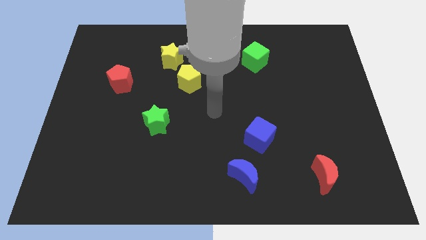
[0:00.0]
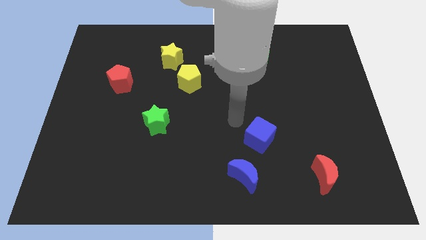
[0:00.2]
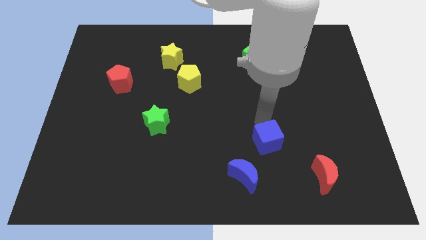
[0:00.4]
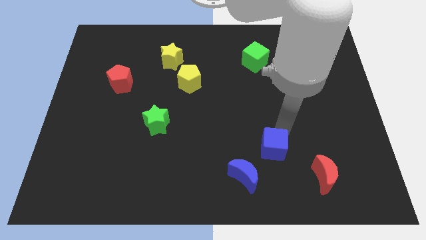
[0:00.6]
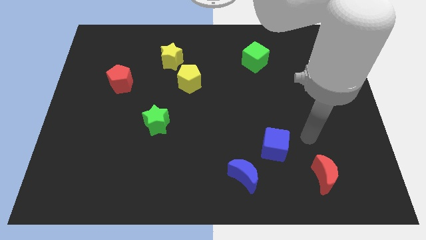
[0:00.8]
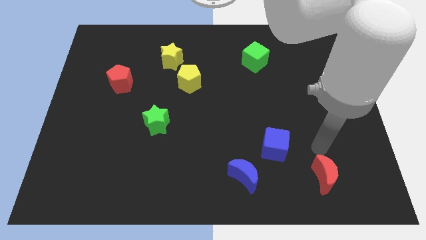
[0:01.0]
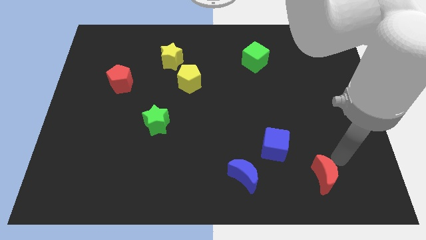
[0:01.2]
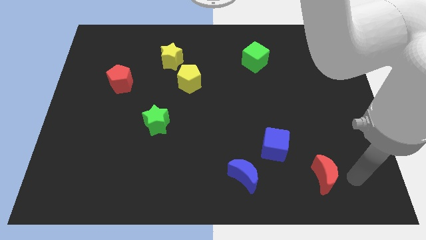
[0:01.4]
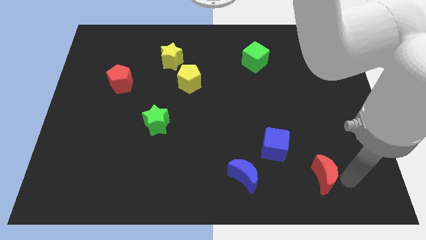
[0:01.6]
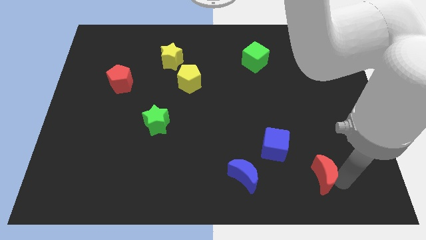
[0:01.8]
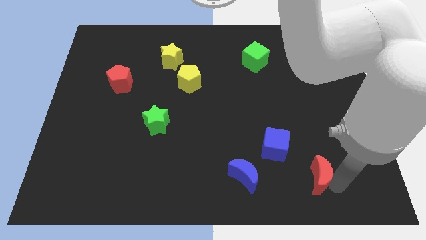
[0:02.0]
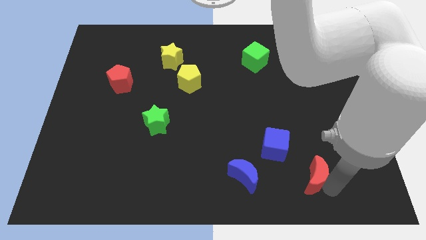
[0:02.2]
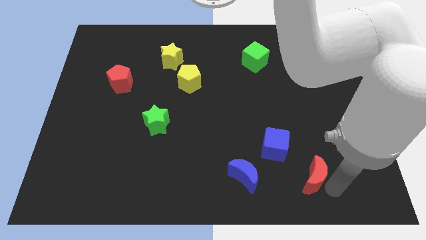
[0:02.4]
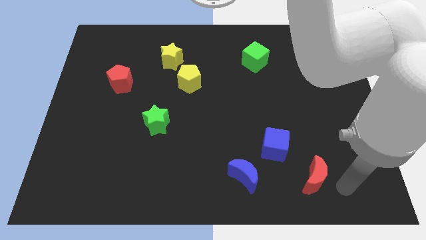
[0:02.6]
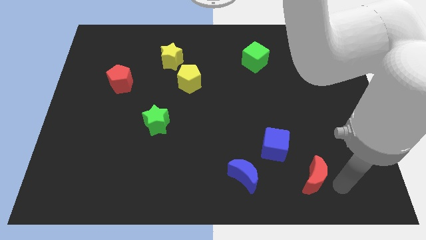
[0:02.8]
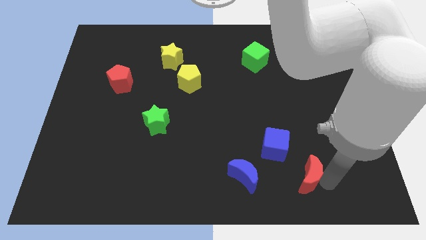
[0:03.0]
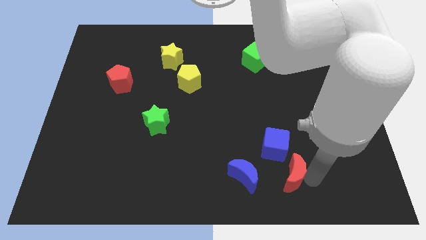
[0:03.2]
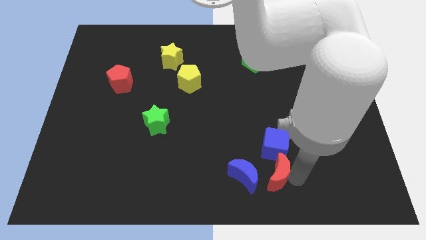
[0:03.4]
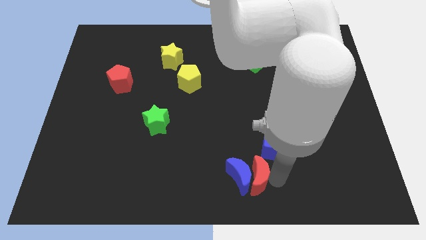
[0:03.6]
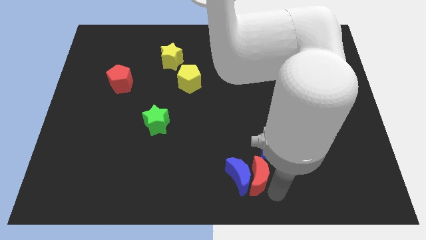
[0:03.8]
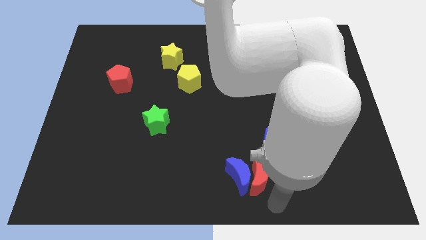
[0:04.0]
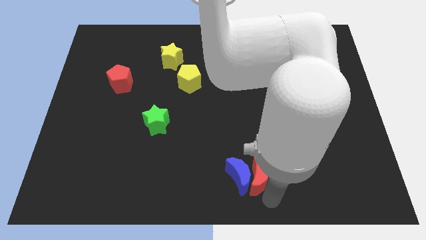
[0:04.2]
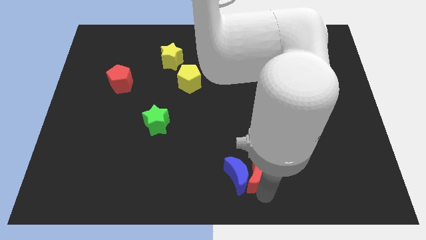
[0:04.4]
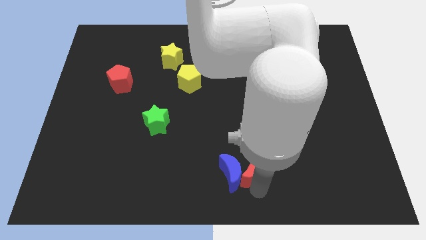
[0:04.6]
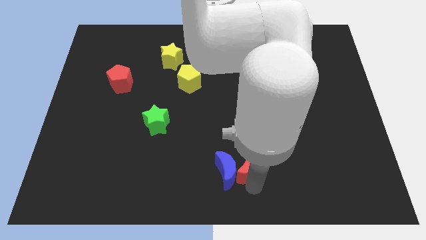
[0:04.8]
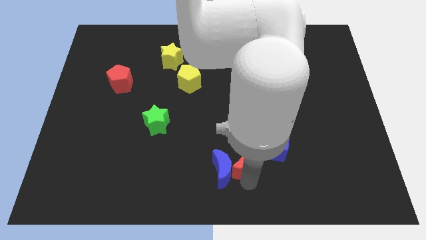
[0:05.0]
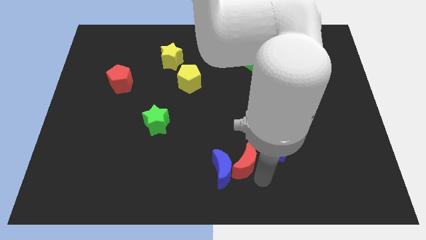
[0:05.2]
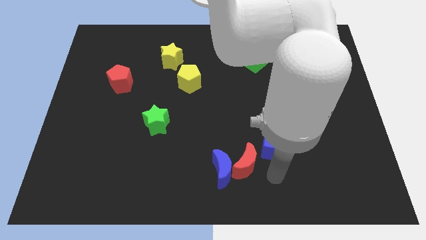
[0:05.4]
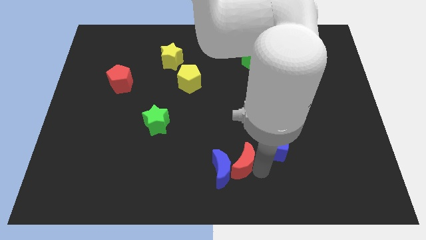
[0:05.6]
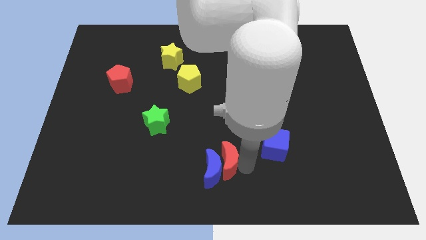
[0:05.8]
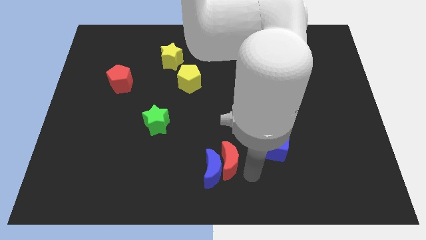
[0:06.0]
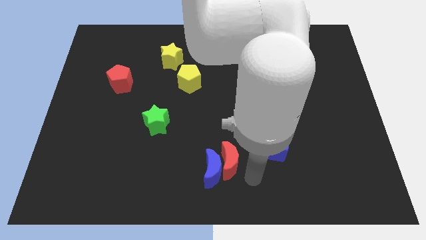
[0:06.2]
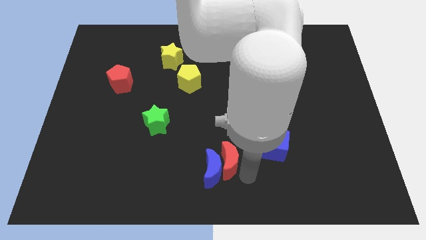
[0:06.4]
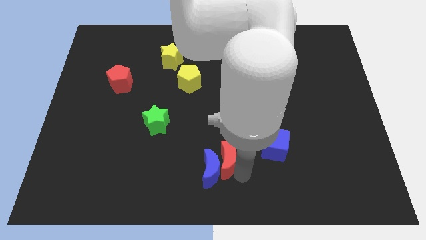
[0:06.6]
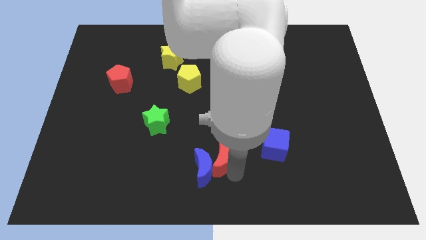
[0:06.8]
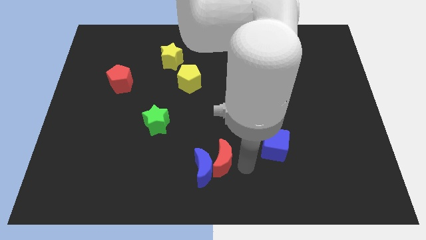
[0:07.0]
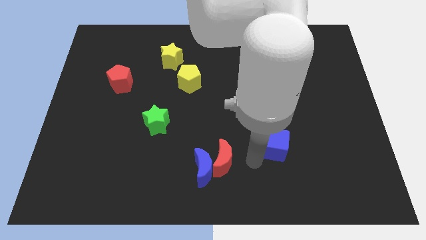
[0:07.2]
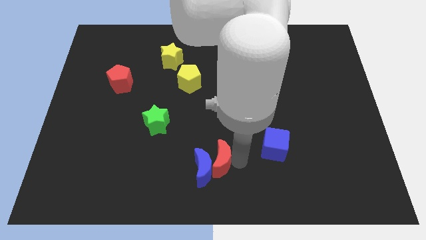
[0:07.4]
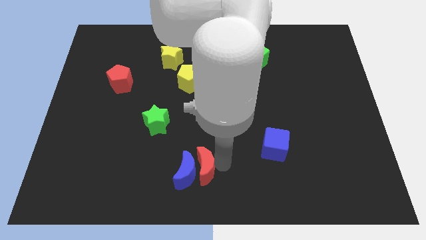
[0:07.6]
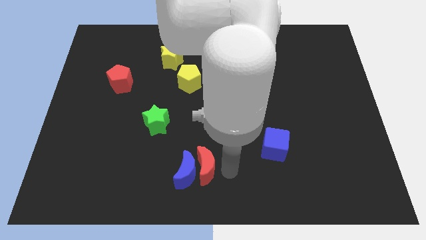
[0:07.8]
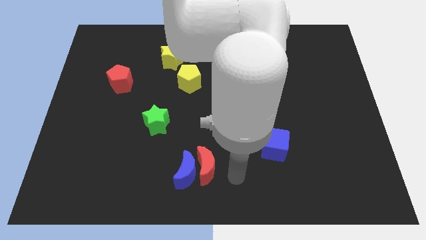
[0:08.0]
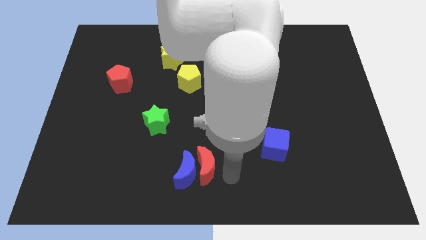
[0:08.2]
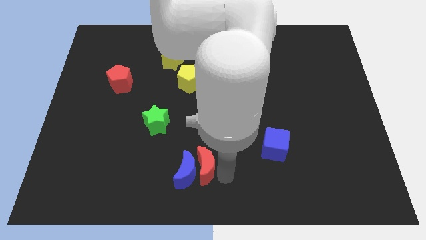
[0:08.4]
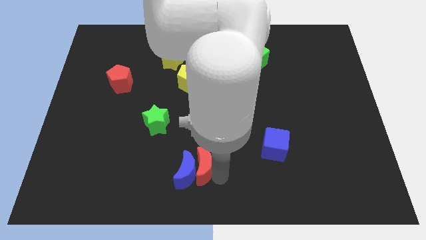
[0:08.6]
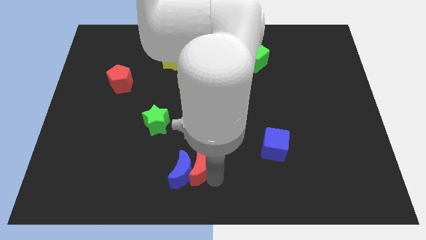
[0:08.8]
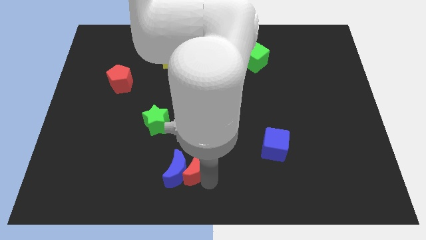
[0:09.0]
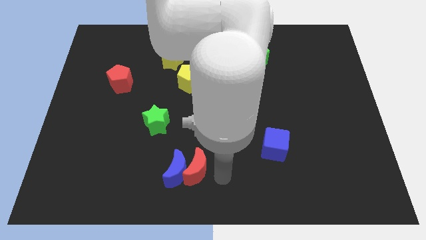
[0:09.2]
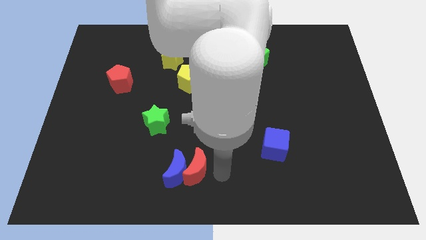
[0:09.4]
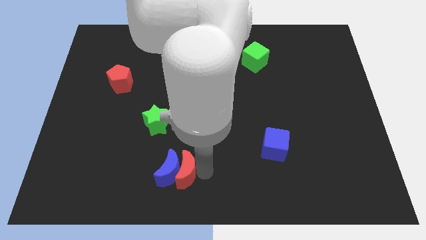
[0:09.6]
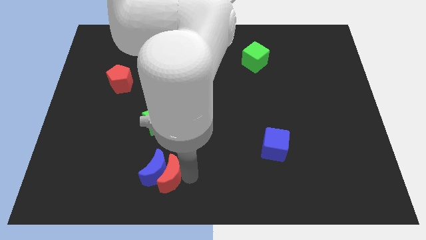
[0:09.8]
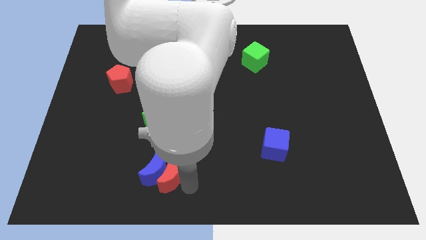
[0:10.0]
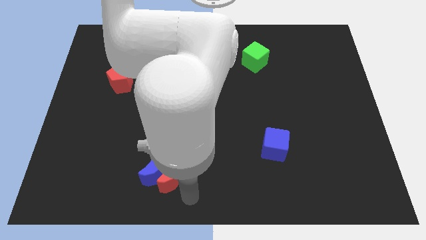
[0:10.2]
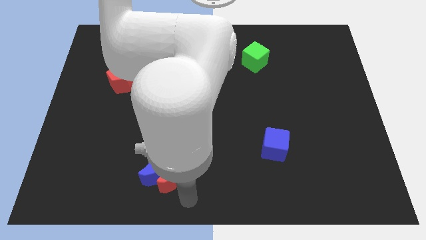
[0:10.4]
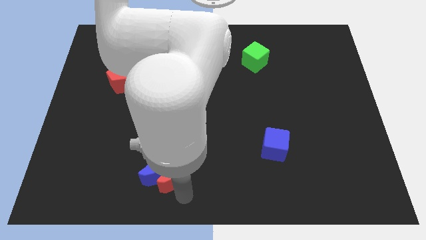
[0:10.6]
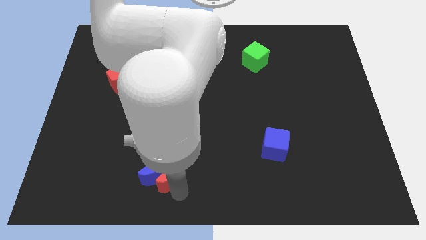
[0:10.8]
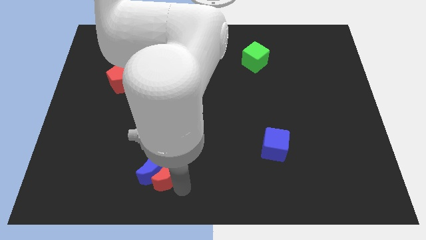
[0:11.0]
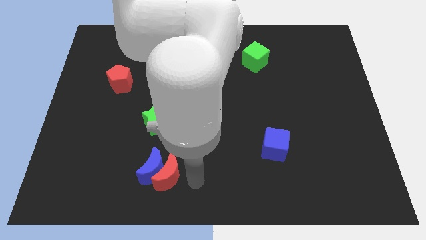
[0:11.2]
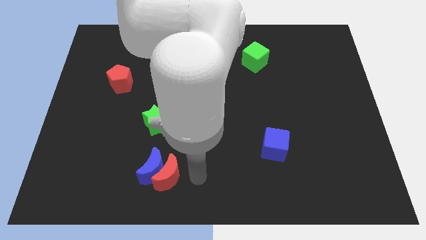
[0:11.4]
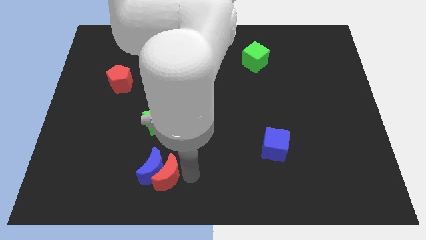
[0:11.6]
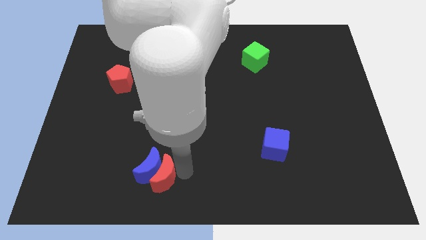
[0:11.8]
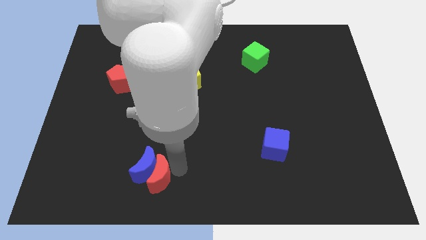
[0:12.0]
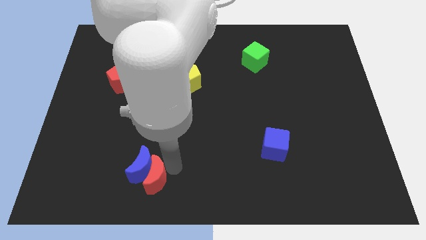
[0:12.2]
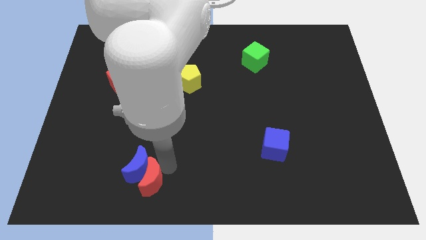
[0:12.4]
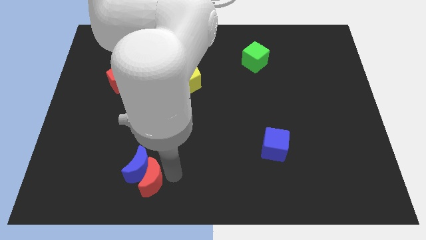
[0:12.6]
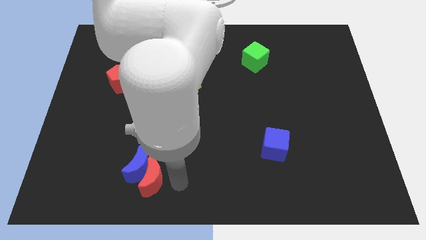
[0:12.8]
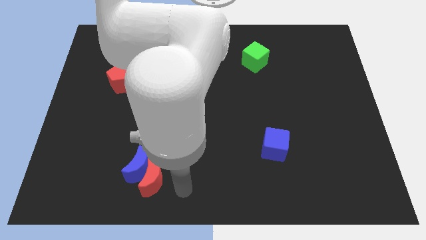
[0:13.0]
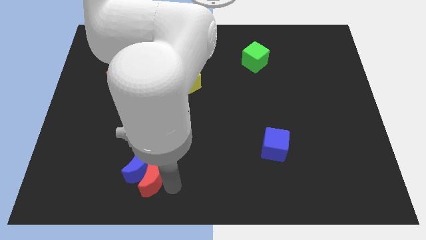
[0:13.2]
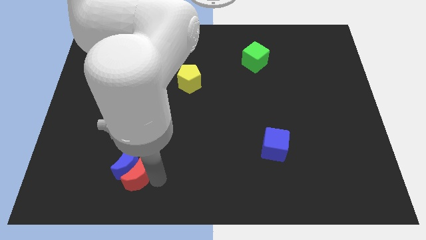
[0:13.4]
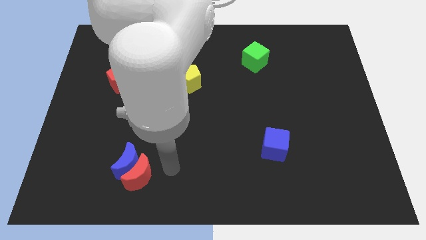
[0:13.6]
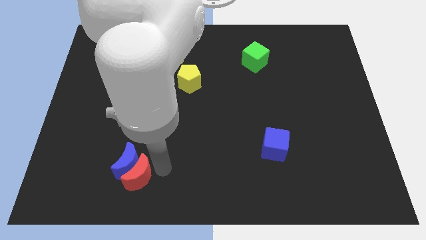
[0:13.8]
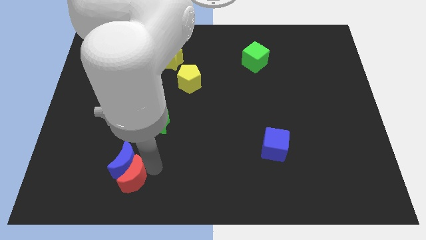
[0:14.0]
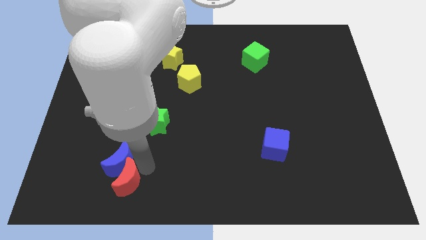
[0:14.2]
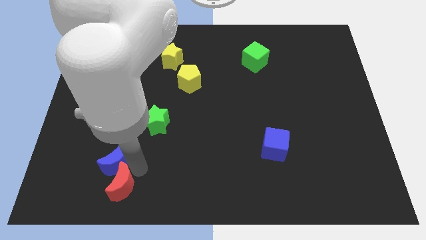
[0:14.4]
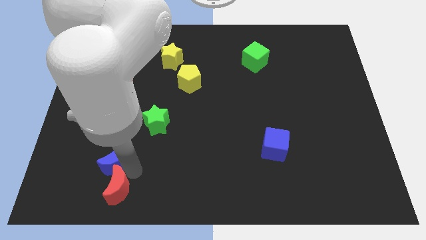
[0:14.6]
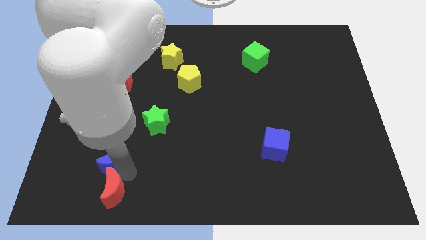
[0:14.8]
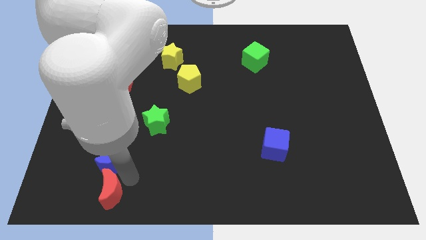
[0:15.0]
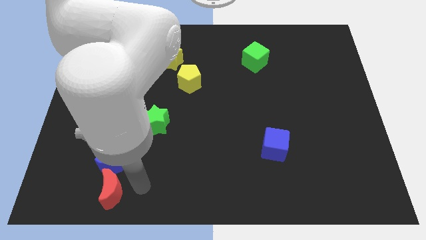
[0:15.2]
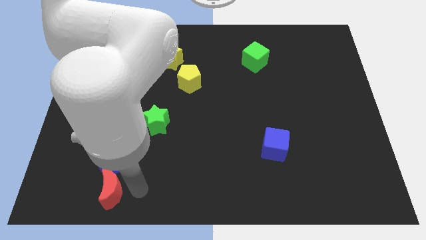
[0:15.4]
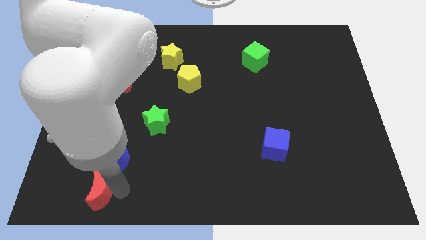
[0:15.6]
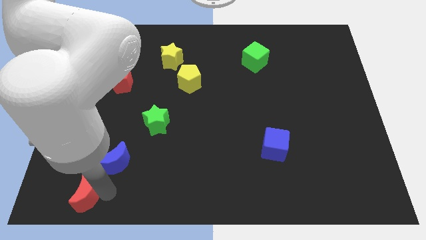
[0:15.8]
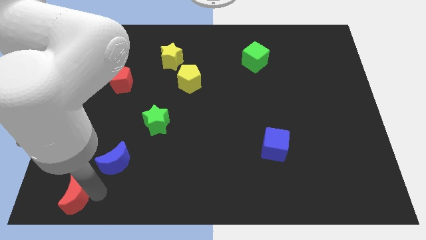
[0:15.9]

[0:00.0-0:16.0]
push the red moon to the lower left corner
